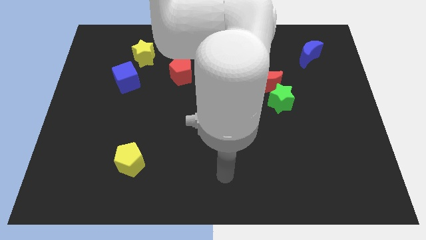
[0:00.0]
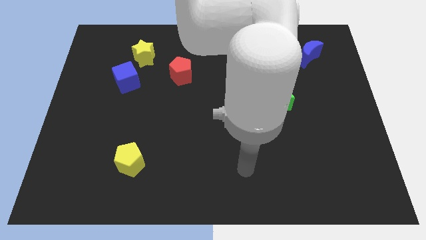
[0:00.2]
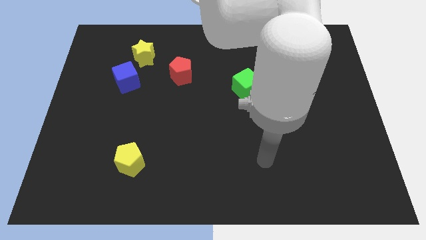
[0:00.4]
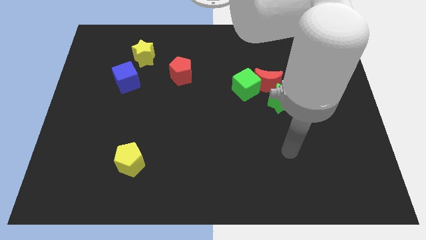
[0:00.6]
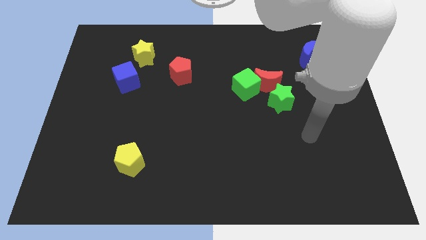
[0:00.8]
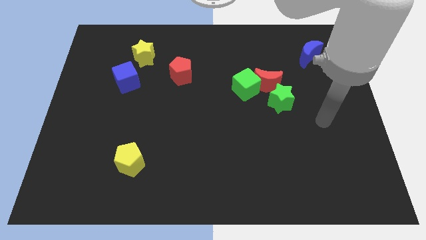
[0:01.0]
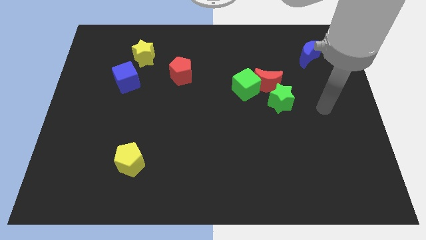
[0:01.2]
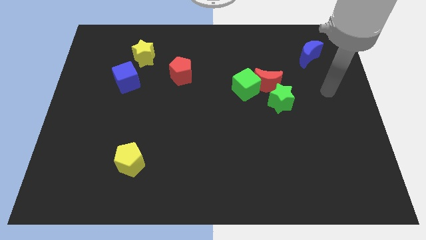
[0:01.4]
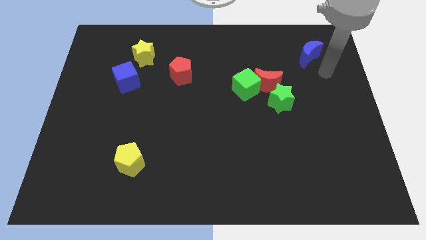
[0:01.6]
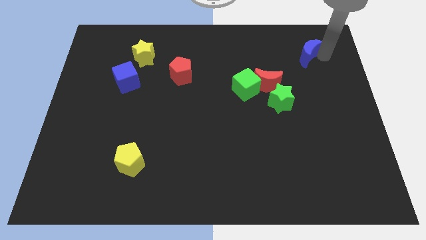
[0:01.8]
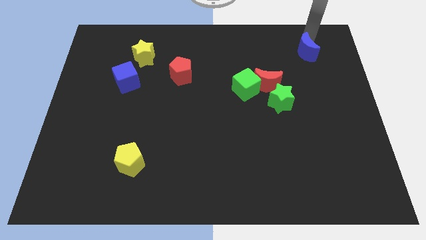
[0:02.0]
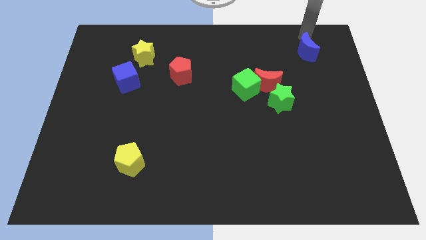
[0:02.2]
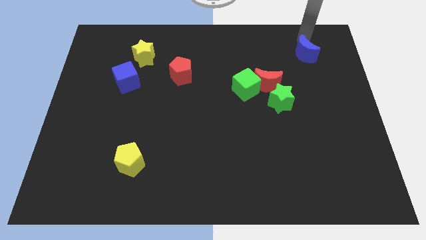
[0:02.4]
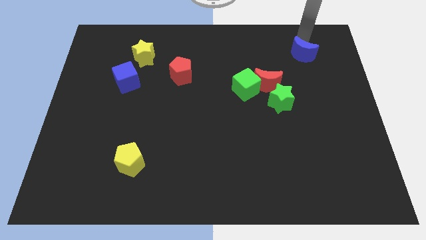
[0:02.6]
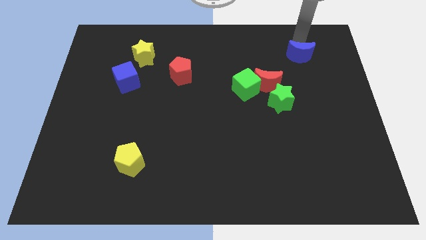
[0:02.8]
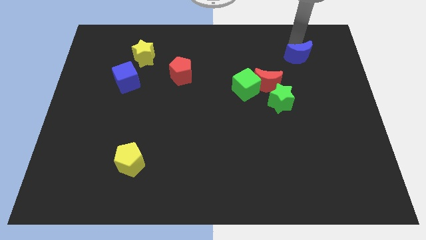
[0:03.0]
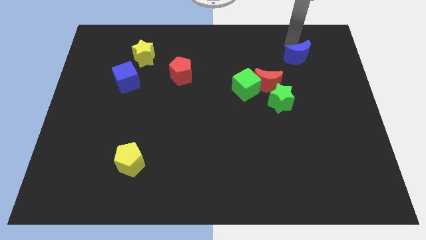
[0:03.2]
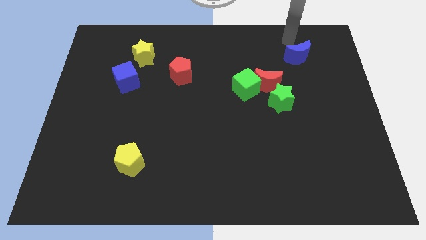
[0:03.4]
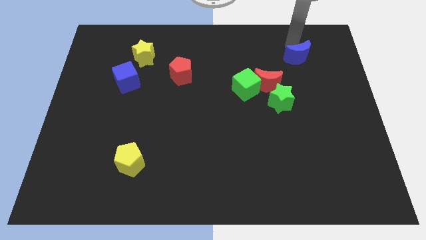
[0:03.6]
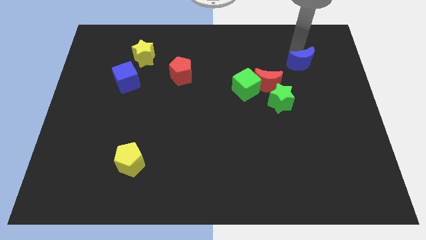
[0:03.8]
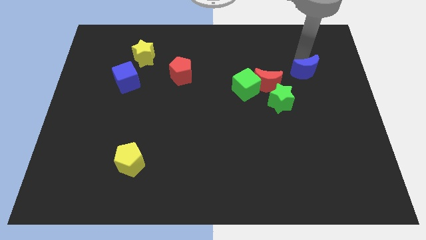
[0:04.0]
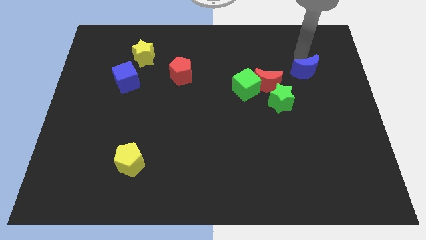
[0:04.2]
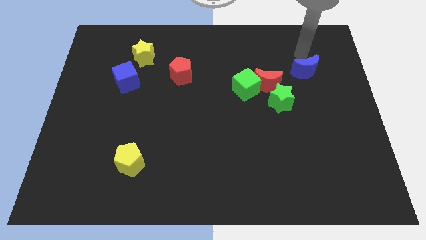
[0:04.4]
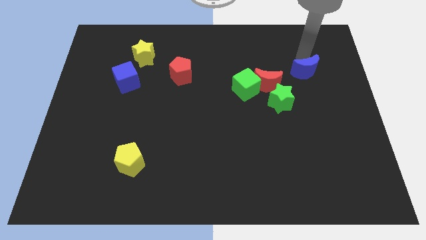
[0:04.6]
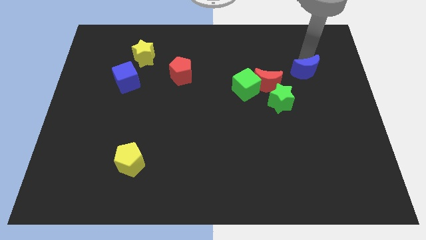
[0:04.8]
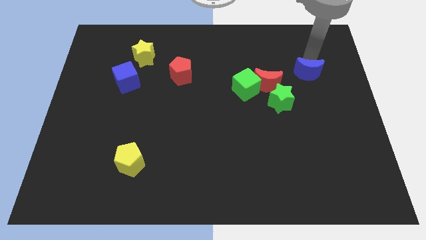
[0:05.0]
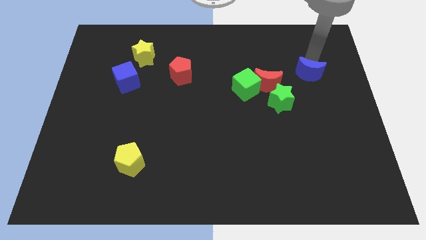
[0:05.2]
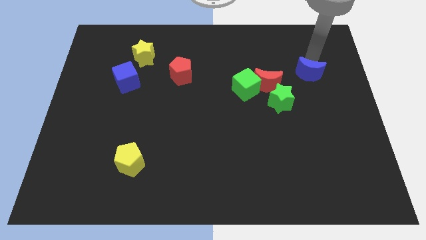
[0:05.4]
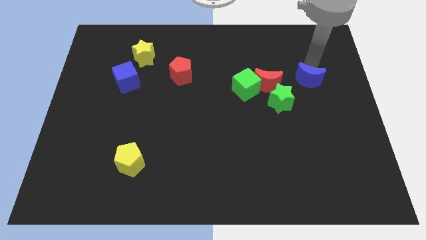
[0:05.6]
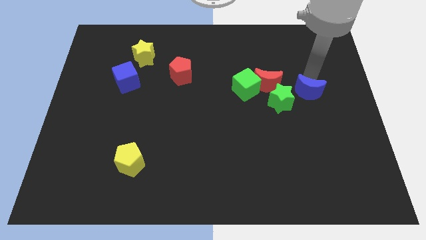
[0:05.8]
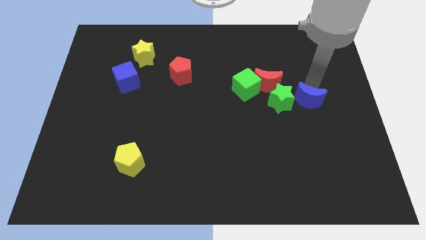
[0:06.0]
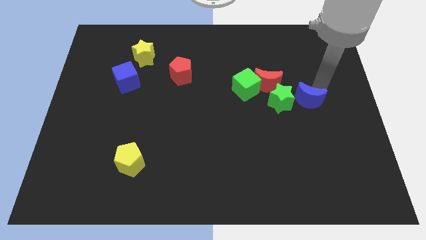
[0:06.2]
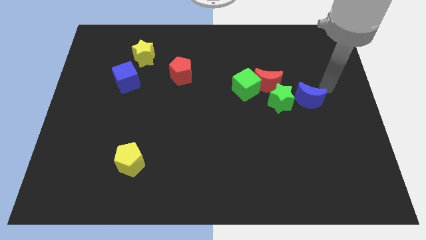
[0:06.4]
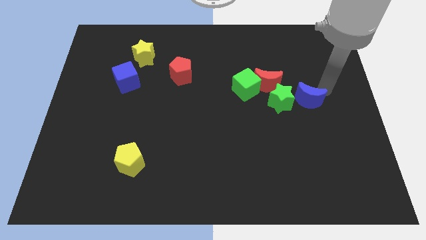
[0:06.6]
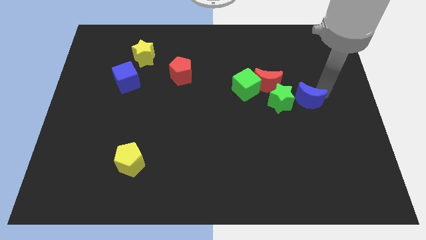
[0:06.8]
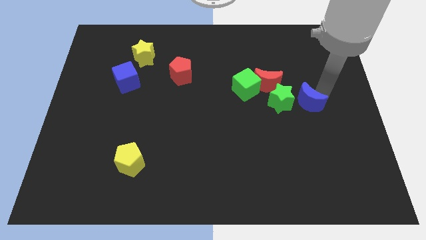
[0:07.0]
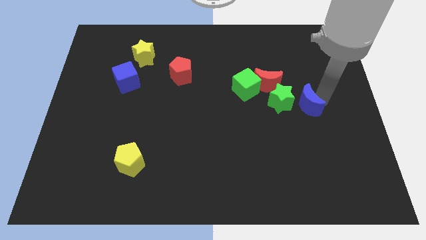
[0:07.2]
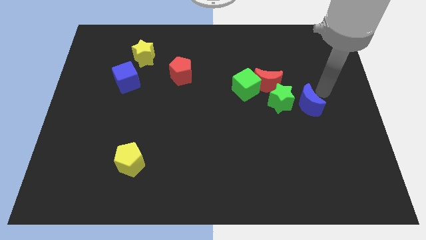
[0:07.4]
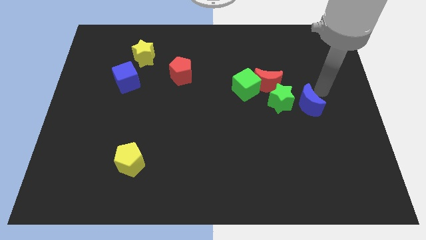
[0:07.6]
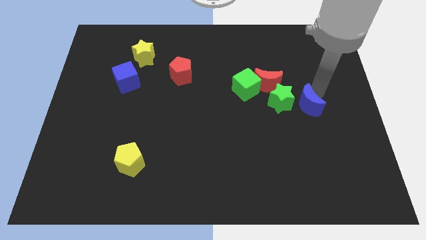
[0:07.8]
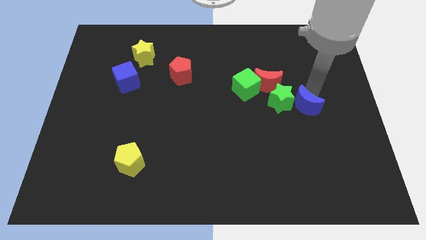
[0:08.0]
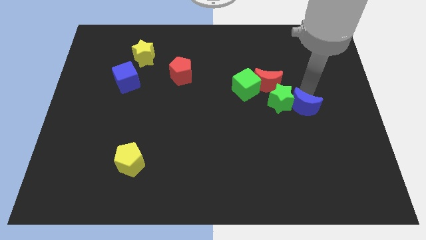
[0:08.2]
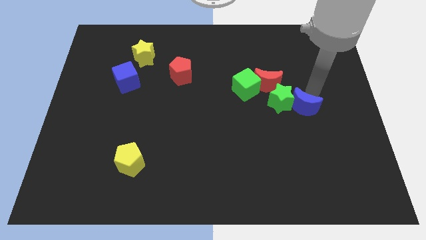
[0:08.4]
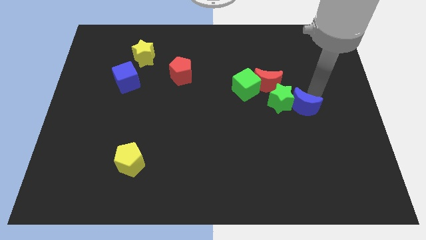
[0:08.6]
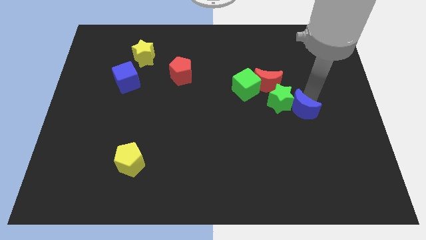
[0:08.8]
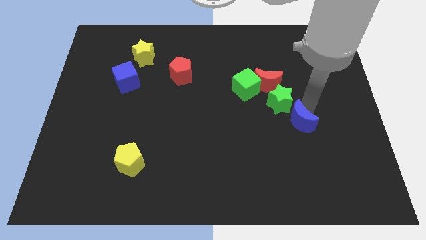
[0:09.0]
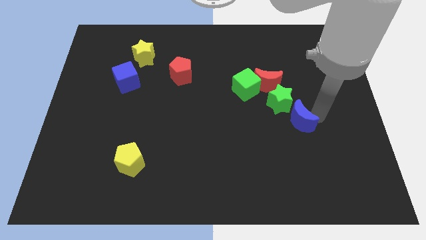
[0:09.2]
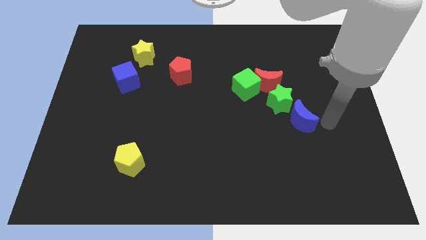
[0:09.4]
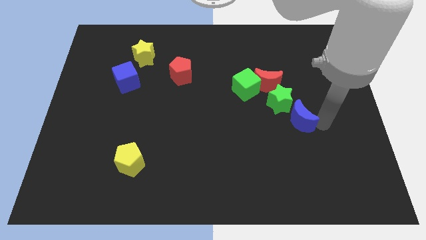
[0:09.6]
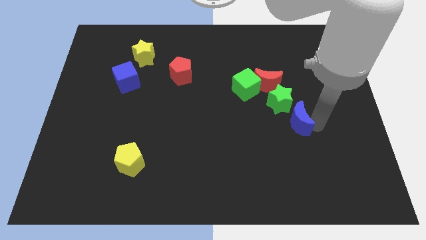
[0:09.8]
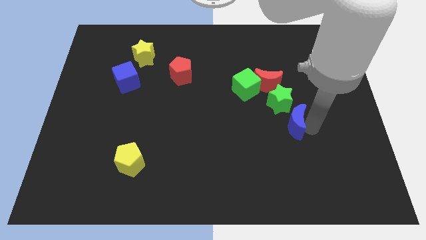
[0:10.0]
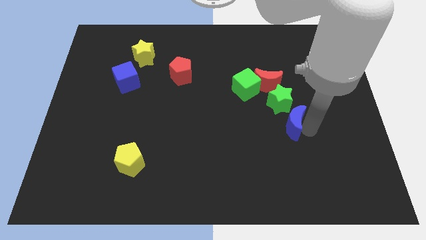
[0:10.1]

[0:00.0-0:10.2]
move the blue moon to the bottom side of the red moon

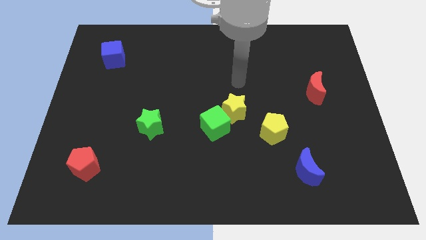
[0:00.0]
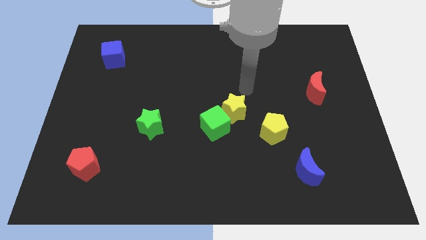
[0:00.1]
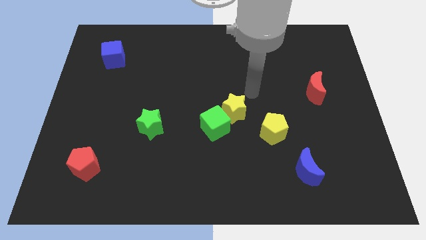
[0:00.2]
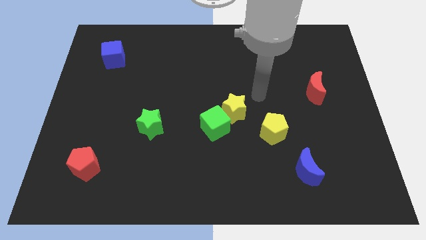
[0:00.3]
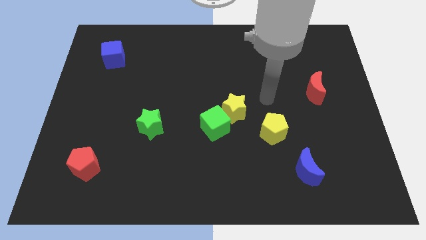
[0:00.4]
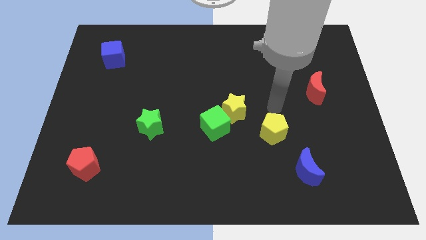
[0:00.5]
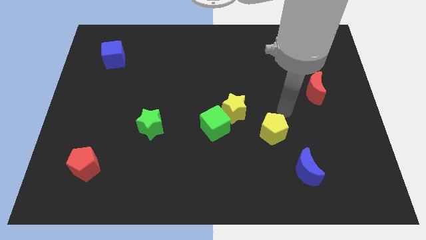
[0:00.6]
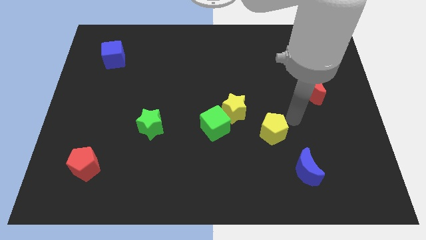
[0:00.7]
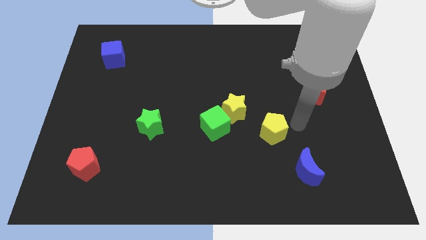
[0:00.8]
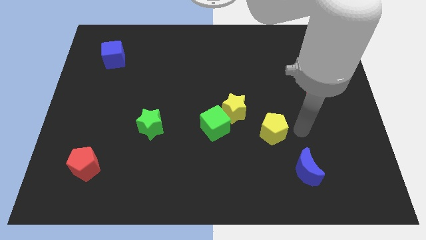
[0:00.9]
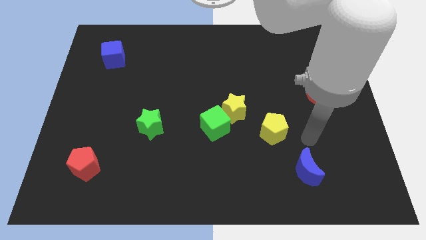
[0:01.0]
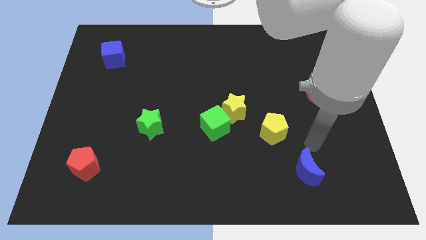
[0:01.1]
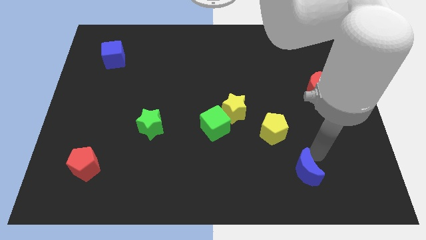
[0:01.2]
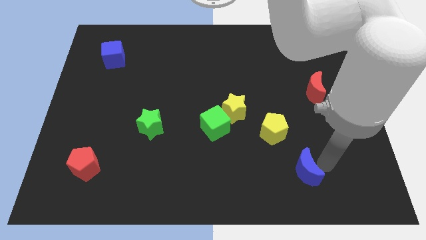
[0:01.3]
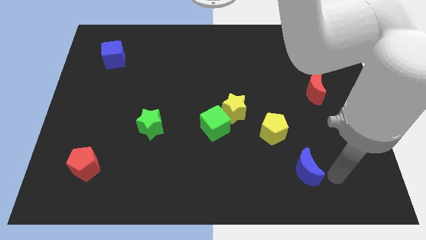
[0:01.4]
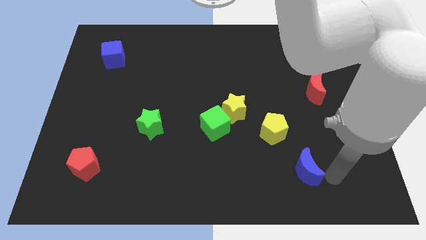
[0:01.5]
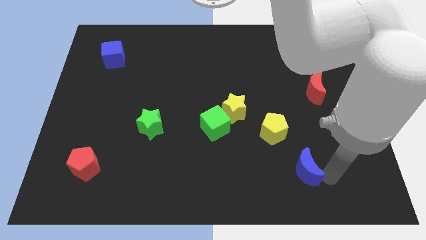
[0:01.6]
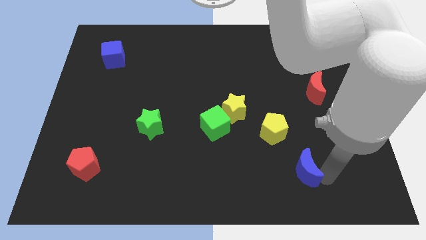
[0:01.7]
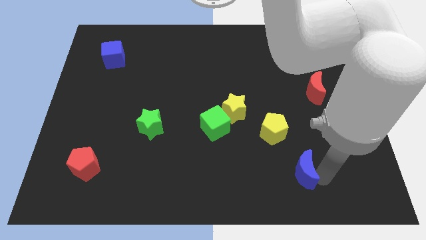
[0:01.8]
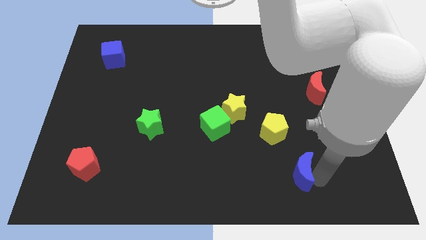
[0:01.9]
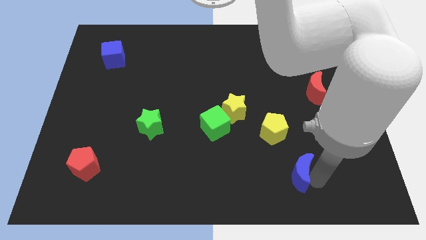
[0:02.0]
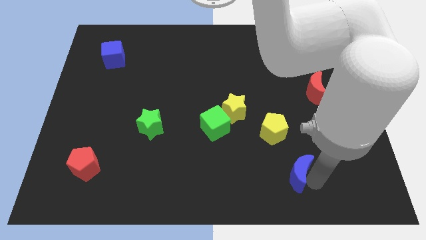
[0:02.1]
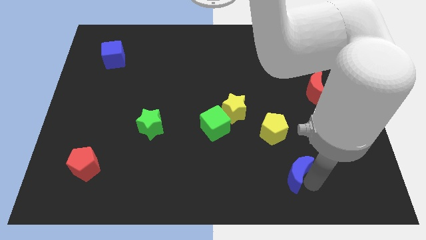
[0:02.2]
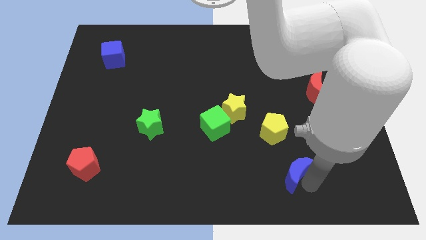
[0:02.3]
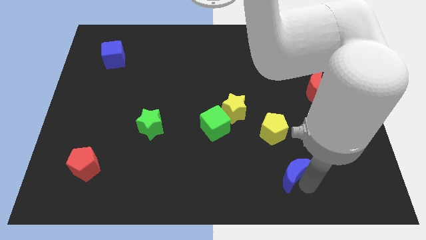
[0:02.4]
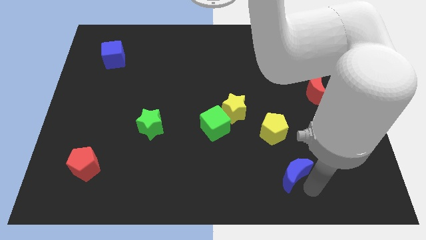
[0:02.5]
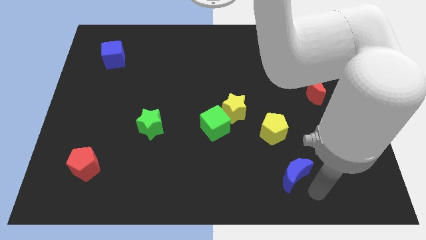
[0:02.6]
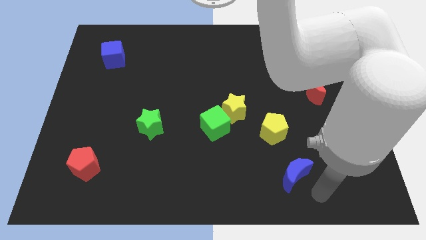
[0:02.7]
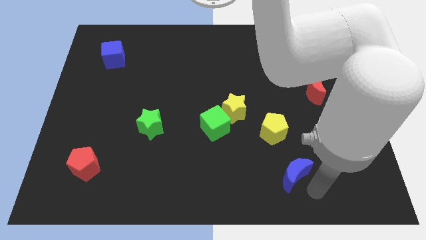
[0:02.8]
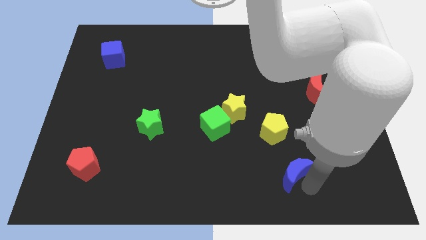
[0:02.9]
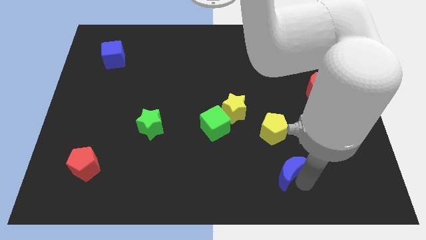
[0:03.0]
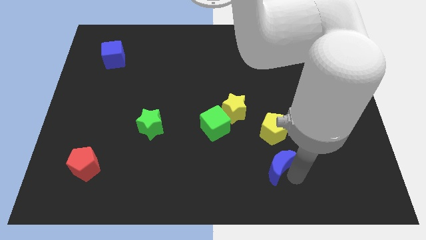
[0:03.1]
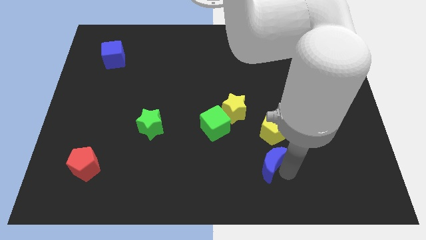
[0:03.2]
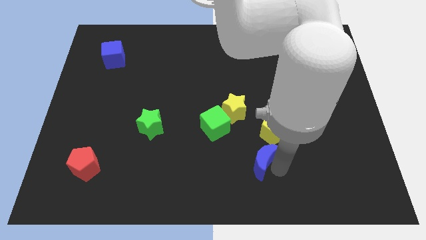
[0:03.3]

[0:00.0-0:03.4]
push the blue moon to the bottom left of the yellow pentagon
